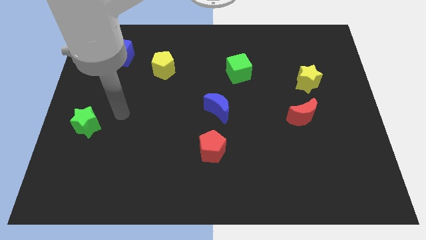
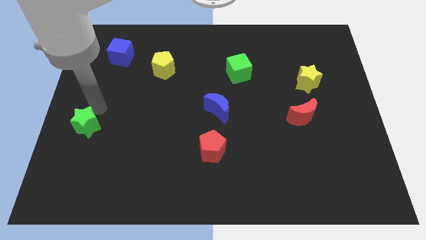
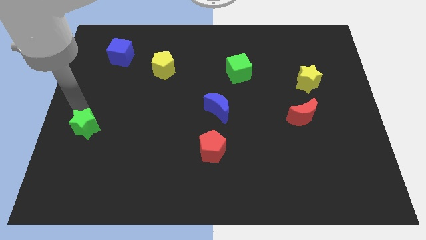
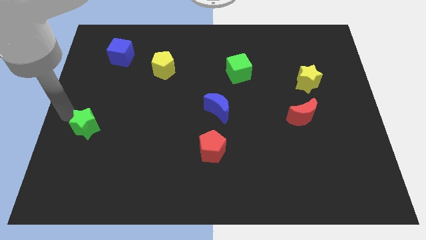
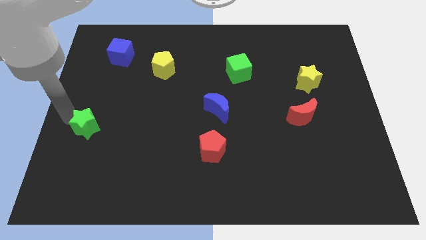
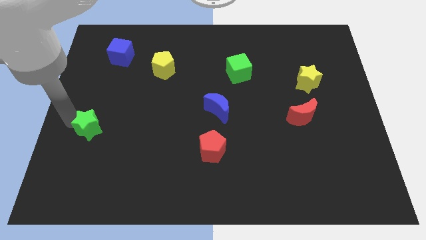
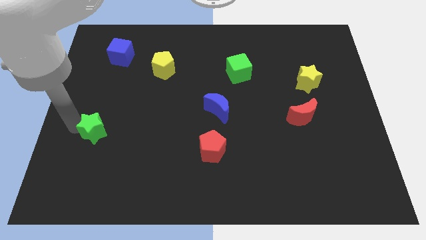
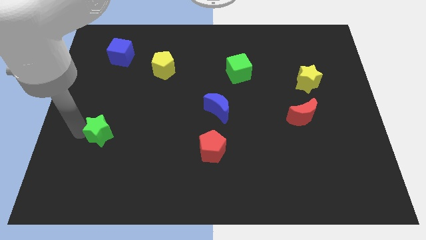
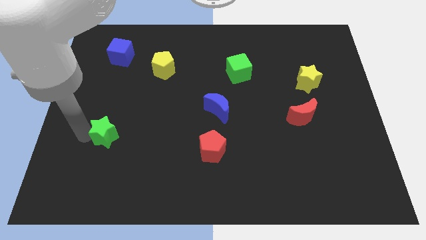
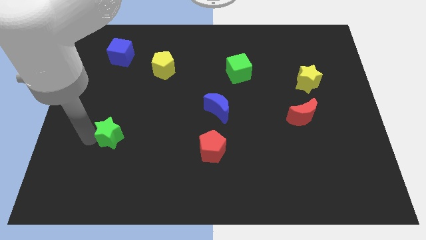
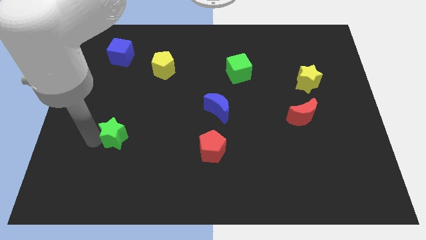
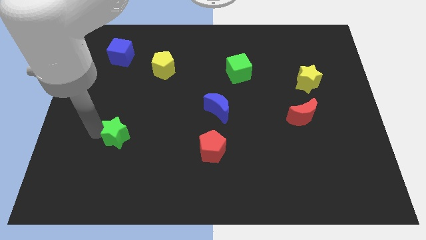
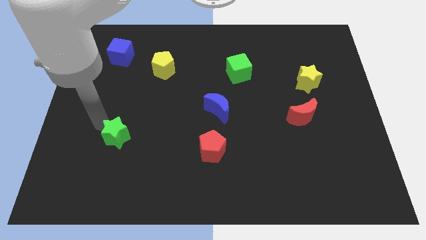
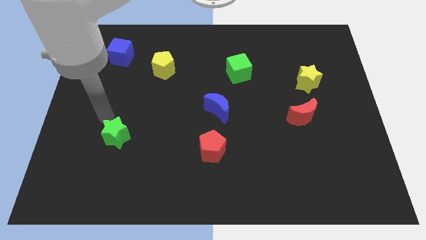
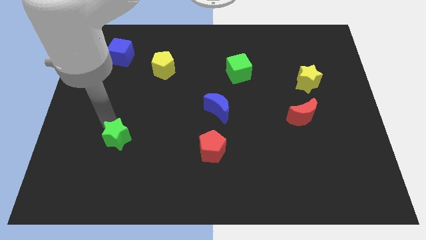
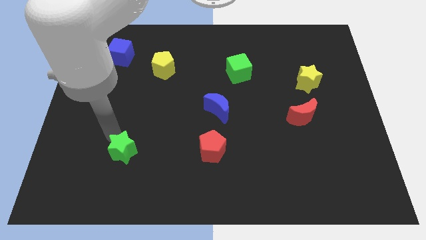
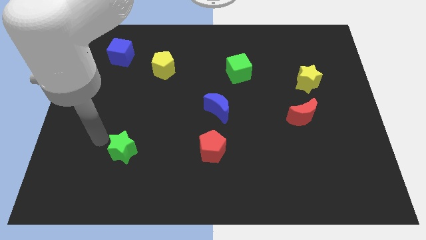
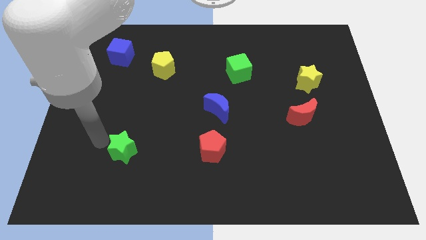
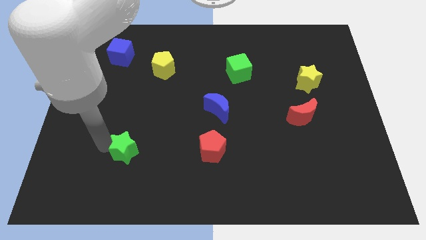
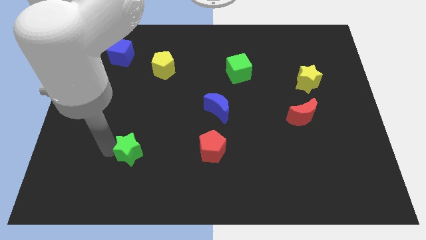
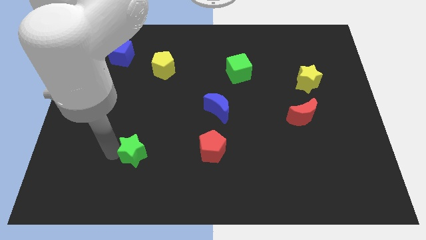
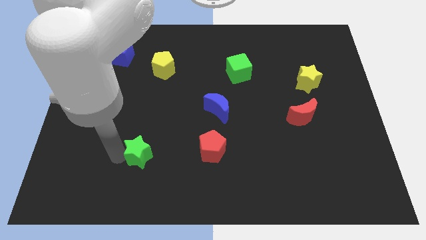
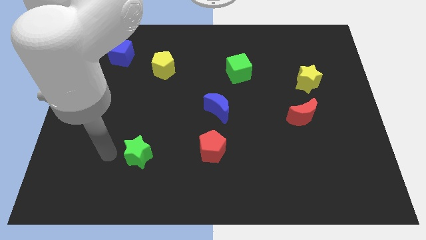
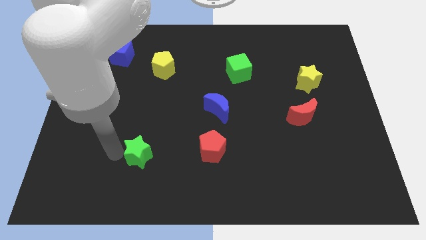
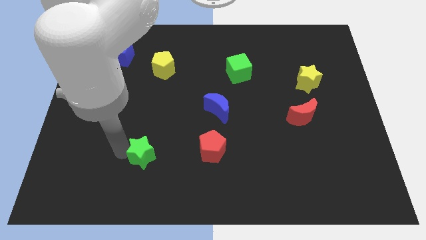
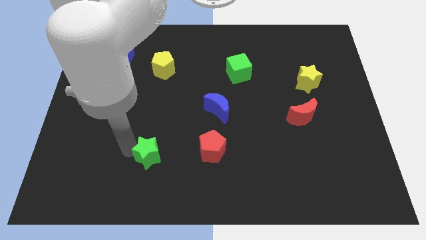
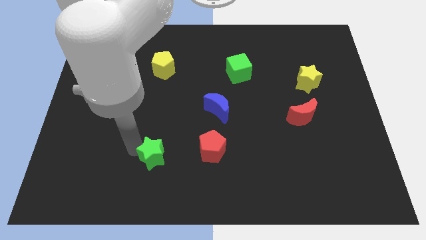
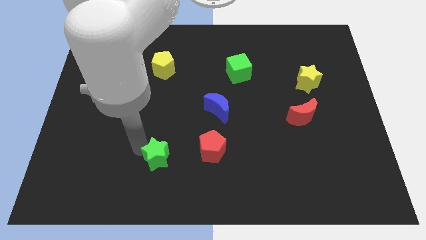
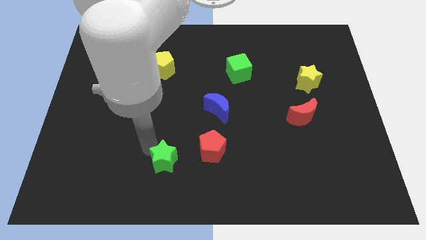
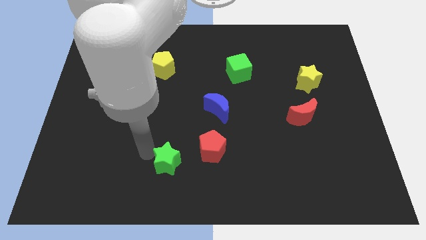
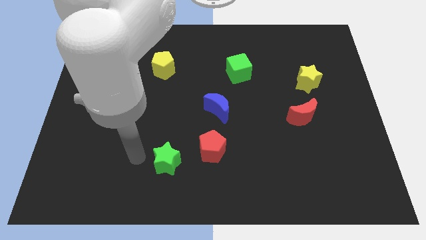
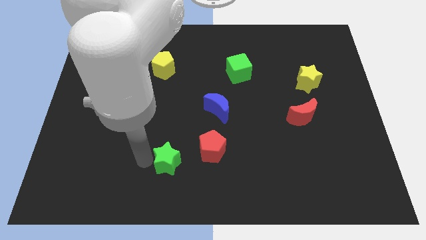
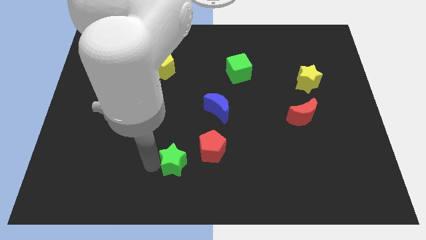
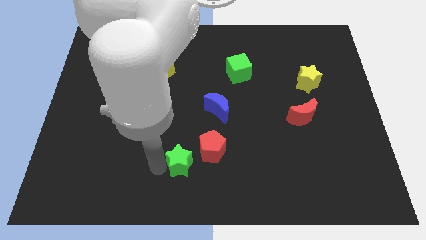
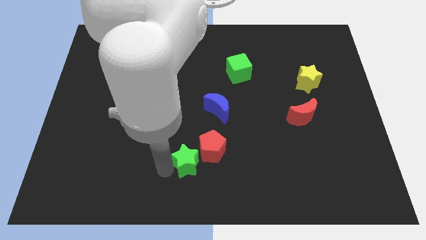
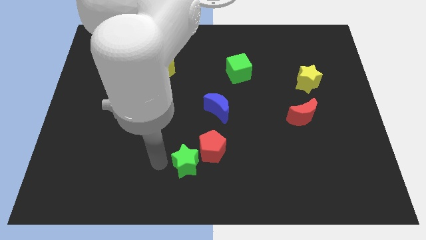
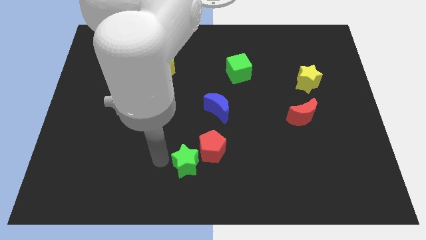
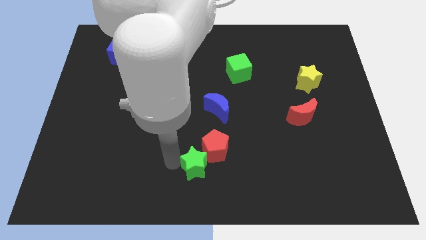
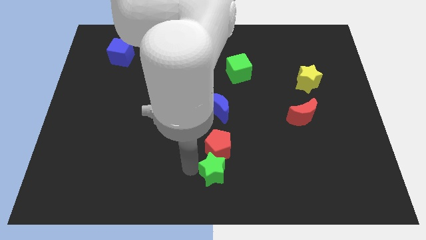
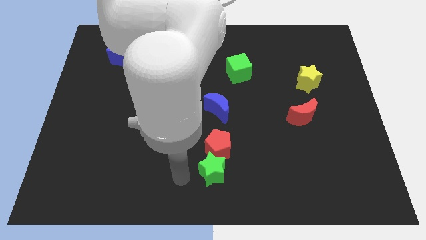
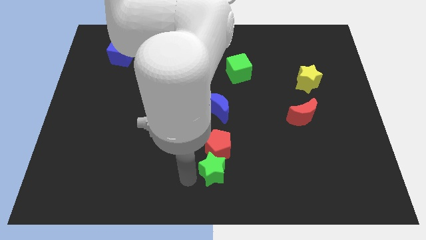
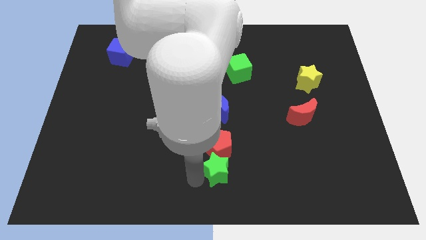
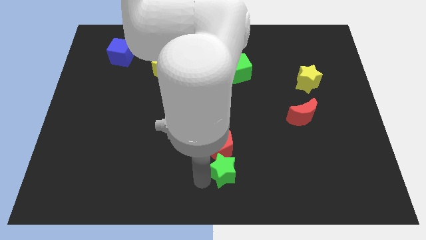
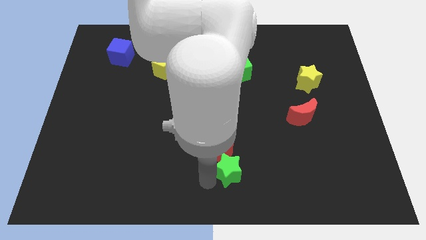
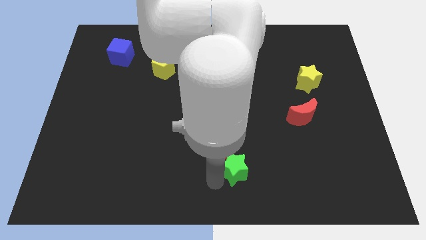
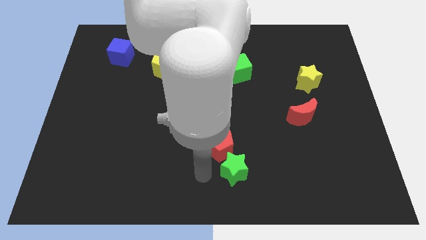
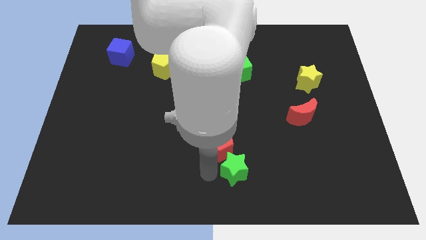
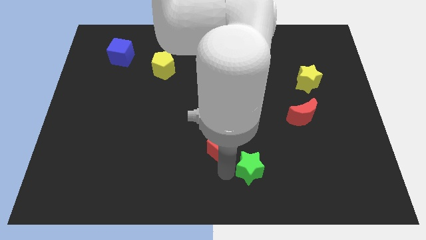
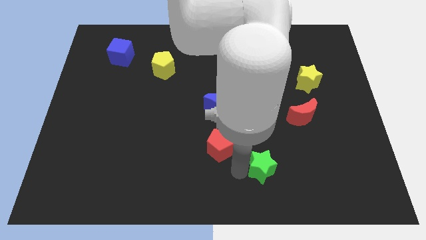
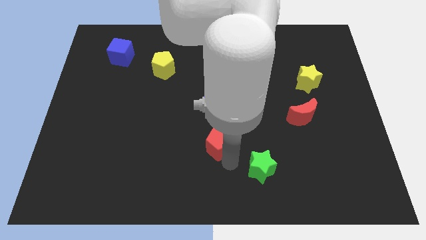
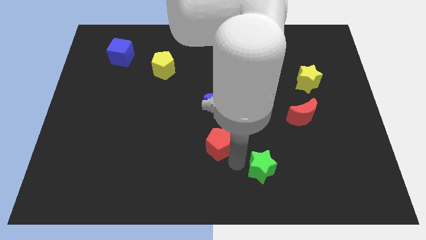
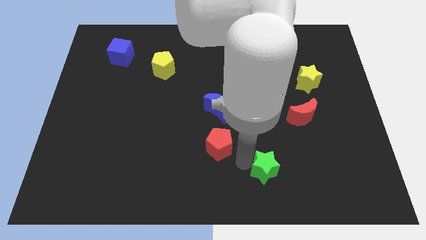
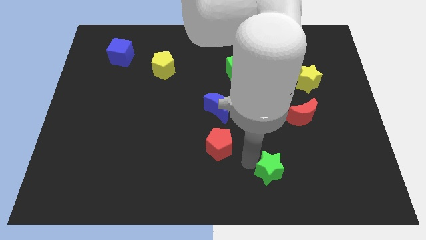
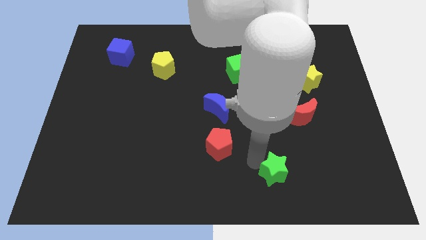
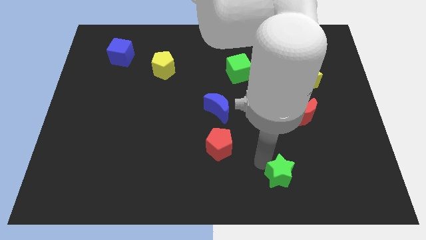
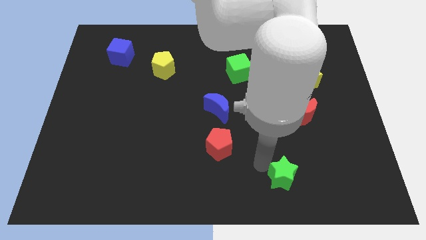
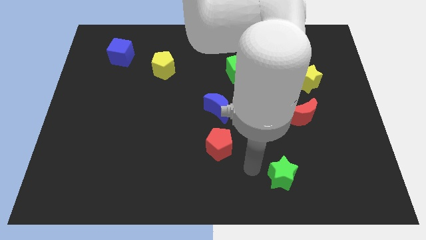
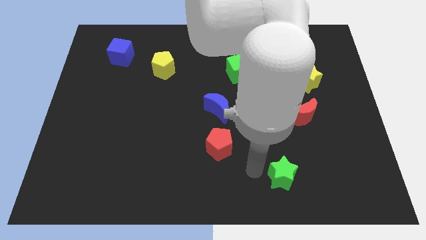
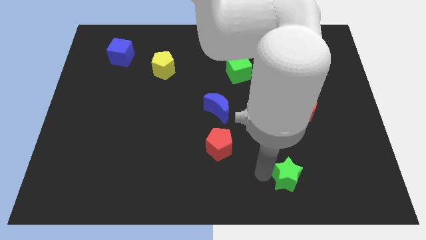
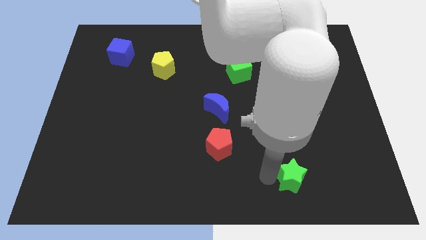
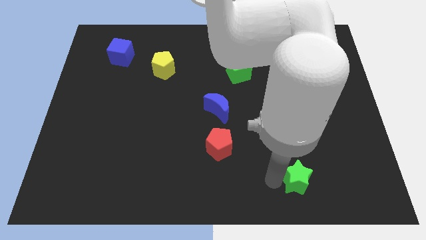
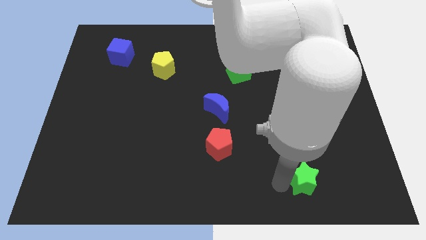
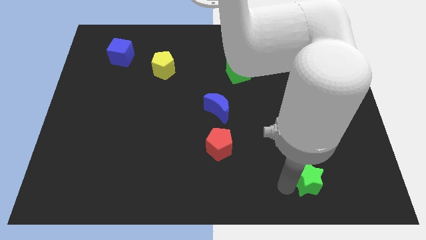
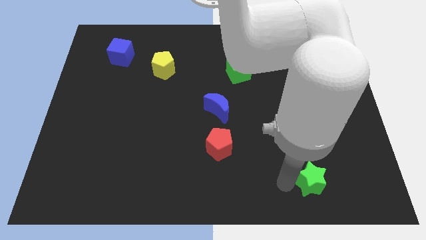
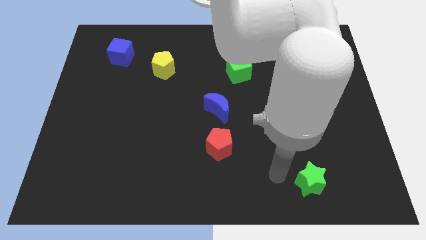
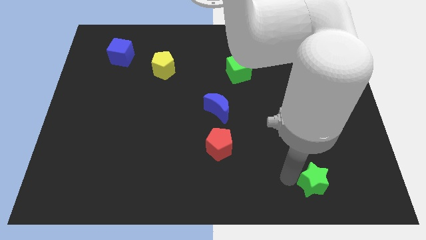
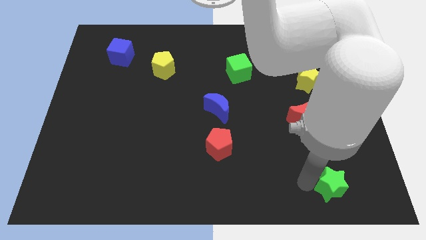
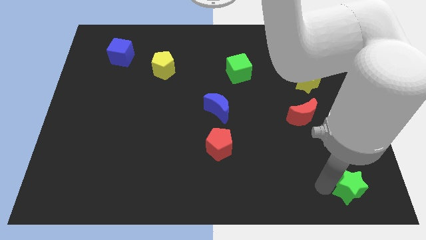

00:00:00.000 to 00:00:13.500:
move the green star to the lower right corner

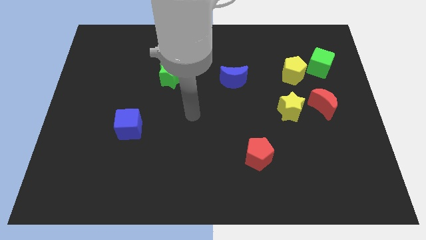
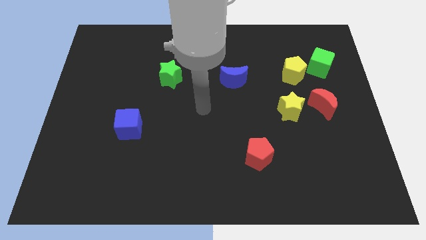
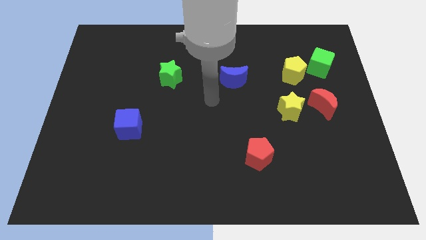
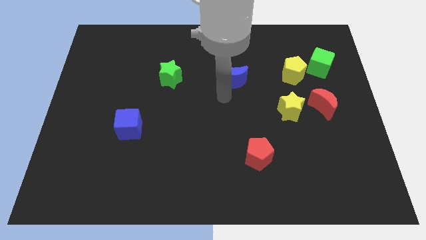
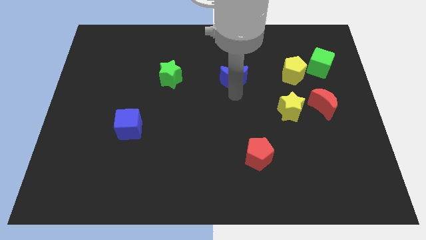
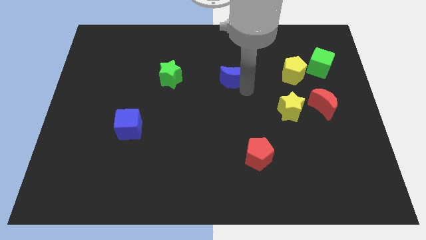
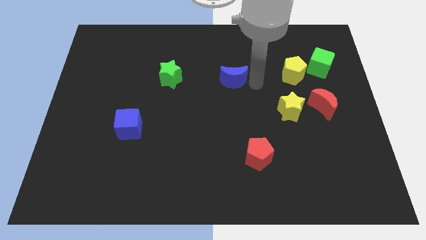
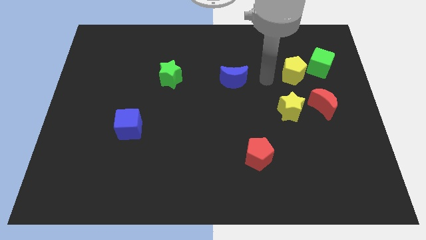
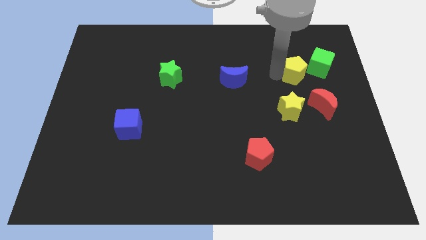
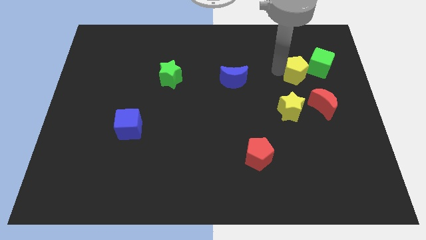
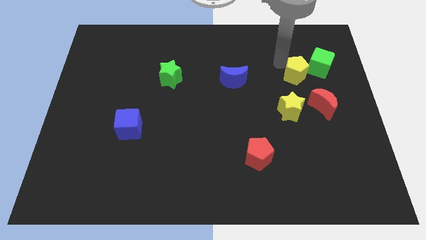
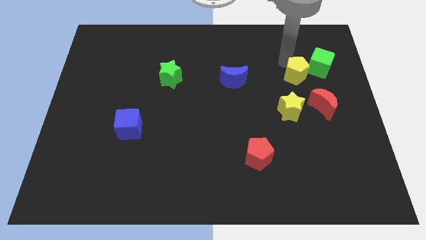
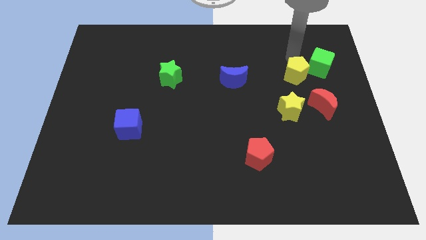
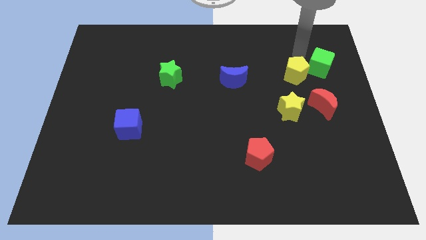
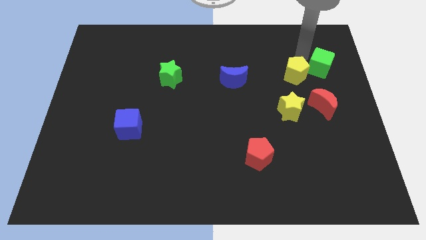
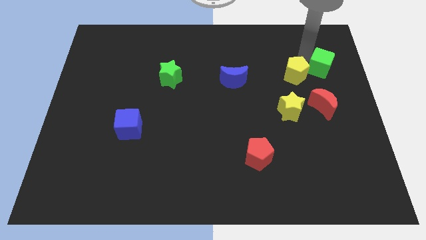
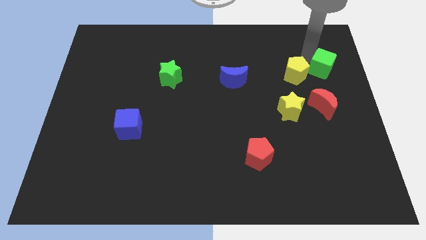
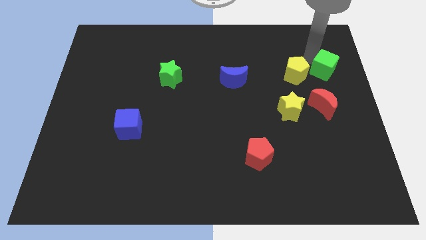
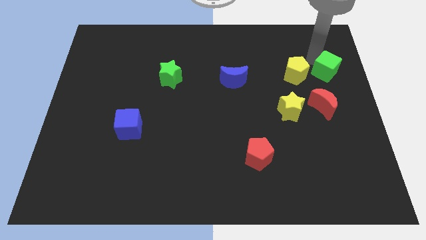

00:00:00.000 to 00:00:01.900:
push the green cube to the center right
